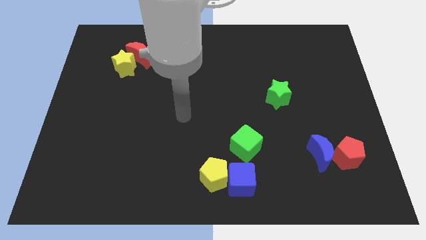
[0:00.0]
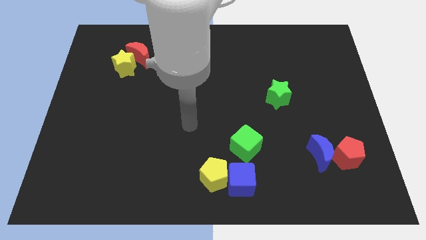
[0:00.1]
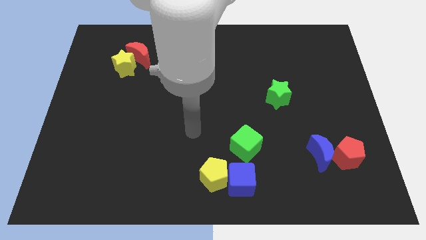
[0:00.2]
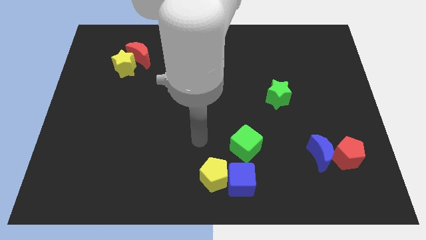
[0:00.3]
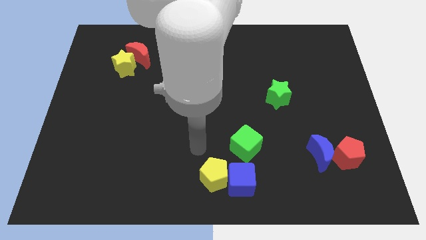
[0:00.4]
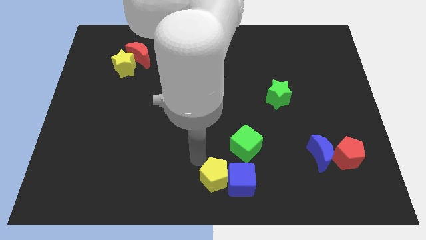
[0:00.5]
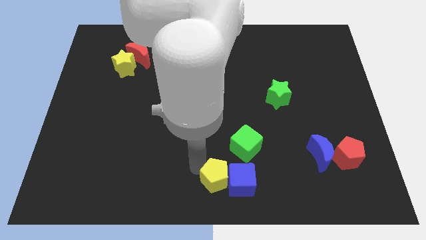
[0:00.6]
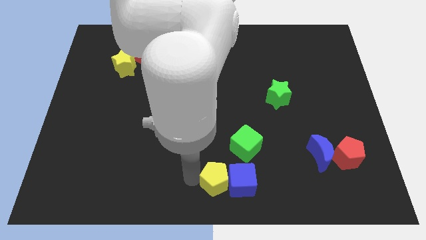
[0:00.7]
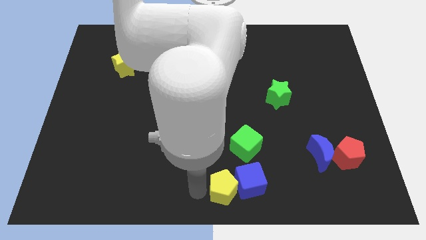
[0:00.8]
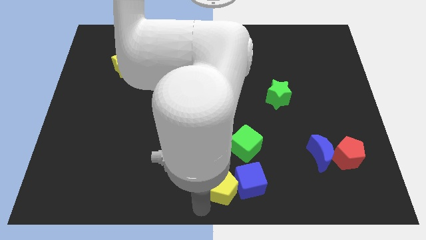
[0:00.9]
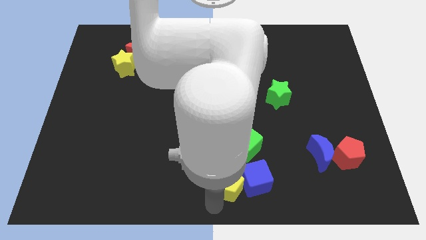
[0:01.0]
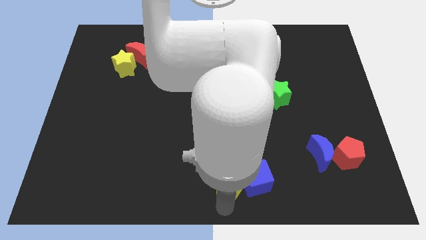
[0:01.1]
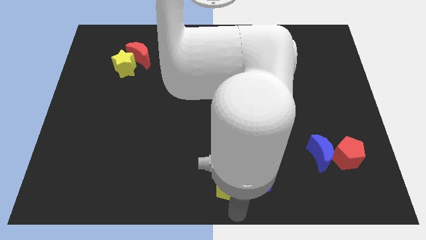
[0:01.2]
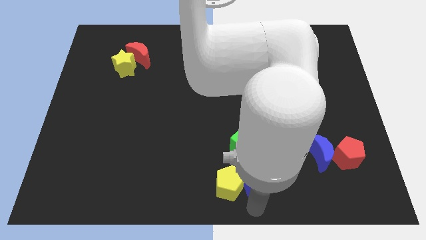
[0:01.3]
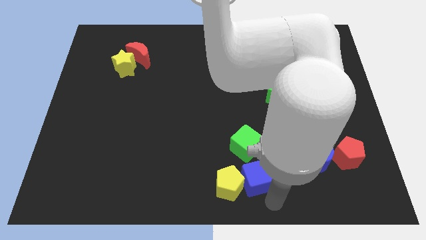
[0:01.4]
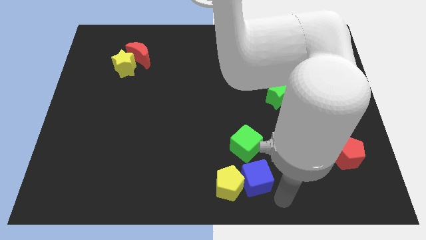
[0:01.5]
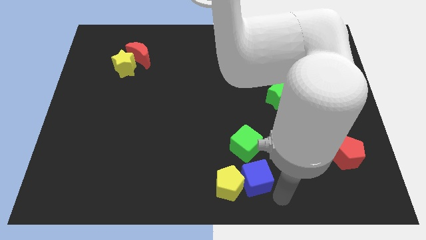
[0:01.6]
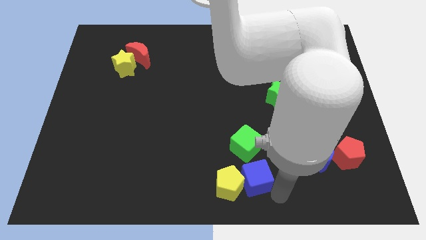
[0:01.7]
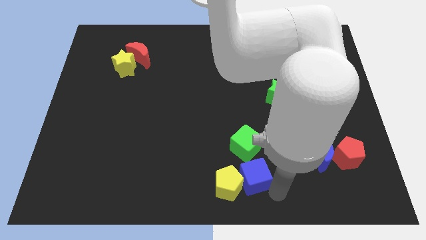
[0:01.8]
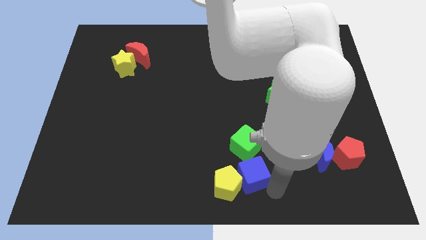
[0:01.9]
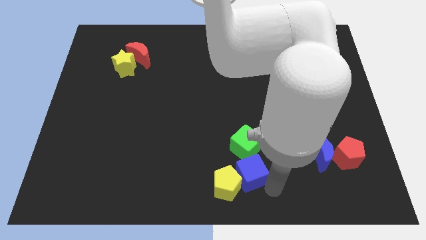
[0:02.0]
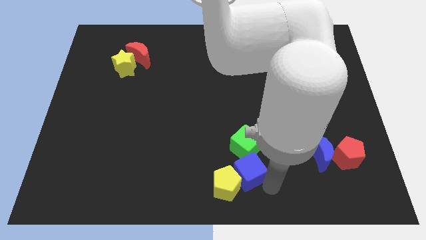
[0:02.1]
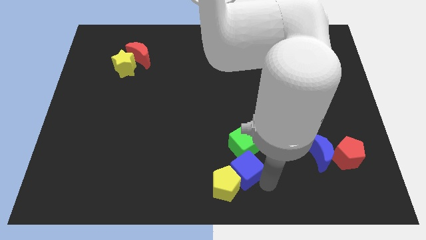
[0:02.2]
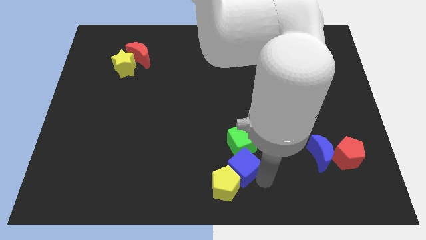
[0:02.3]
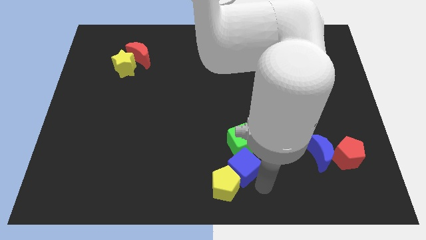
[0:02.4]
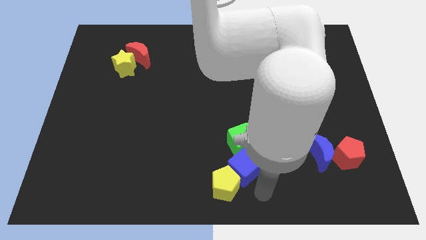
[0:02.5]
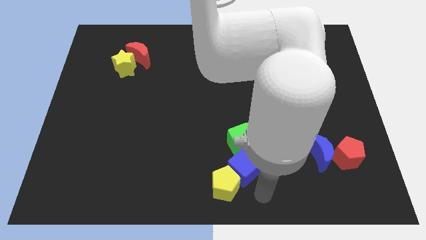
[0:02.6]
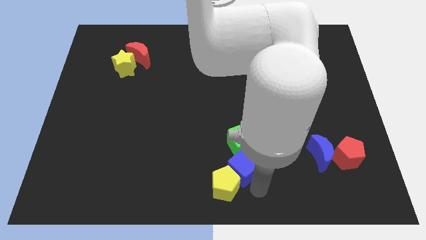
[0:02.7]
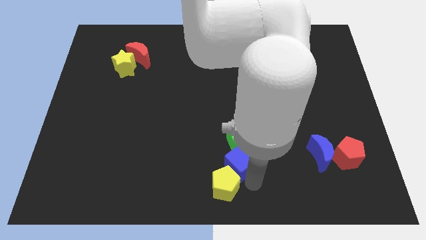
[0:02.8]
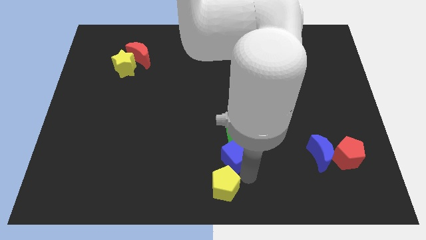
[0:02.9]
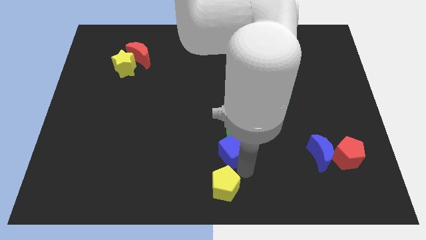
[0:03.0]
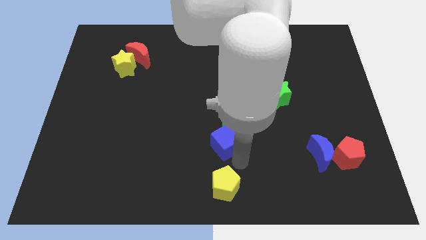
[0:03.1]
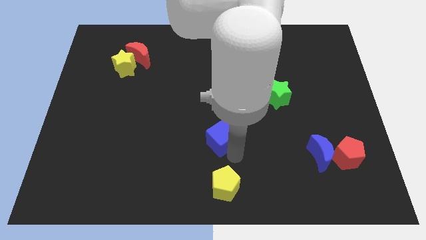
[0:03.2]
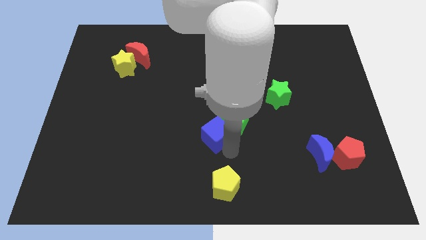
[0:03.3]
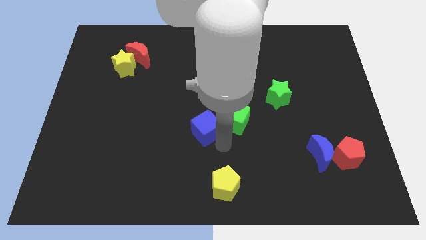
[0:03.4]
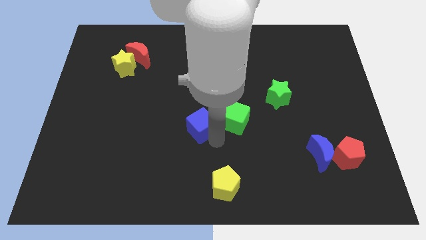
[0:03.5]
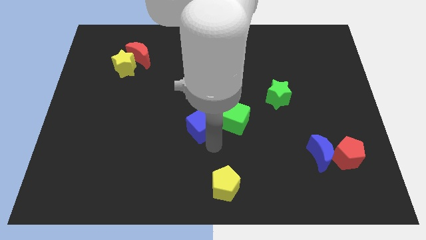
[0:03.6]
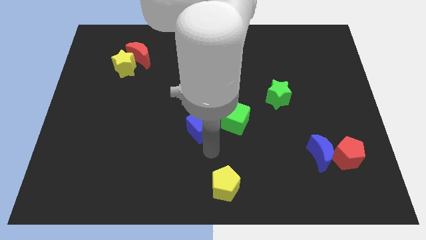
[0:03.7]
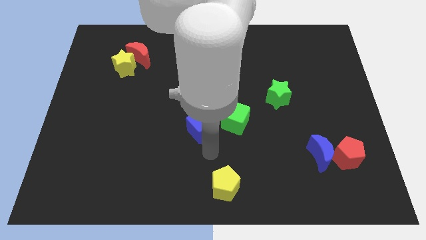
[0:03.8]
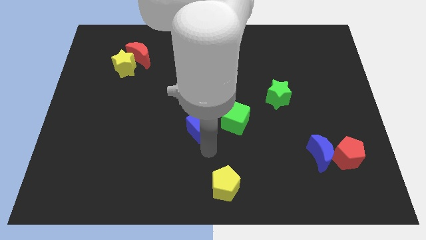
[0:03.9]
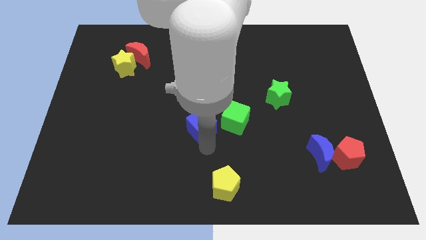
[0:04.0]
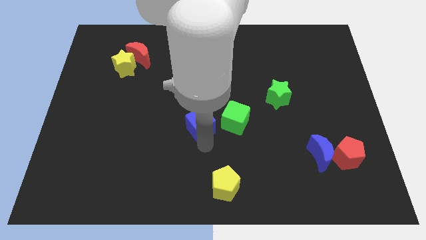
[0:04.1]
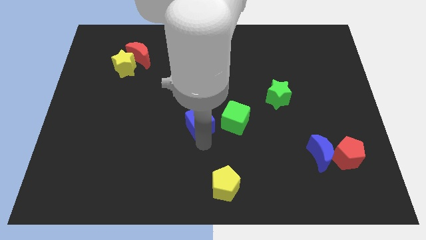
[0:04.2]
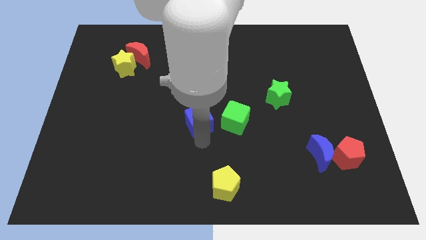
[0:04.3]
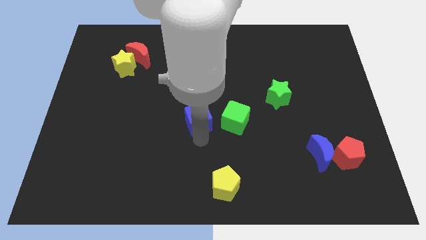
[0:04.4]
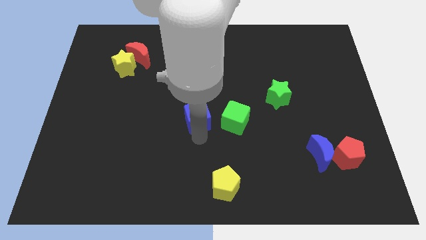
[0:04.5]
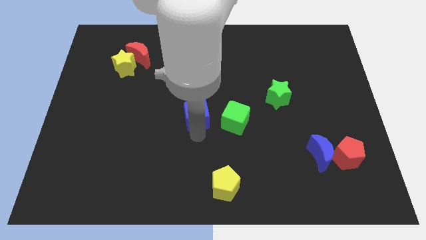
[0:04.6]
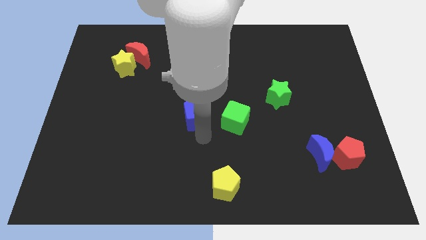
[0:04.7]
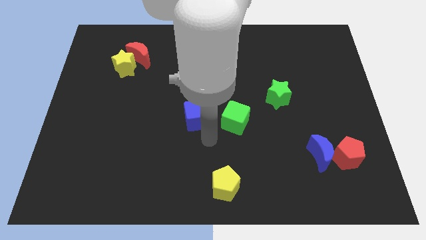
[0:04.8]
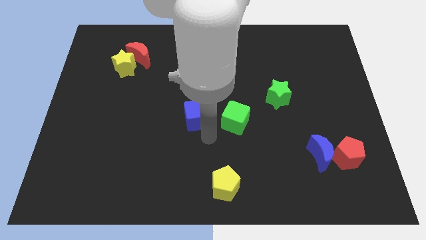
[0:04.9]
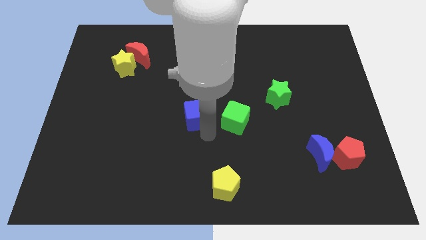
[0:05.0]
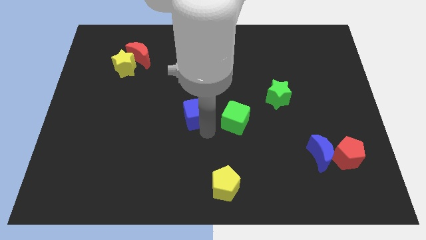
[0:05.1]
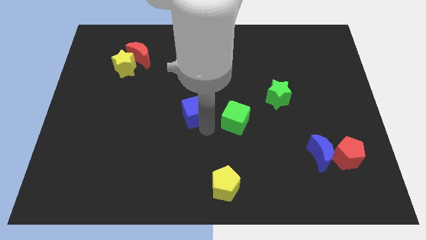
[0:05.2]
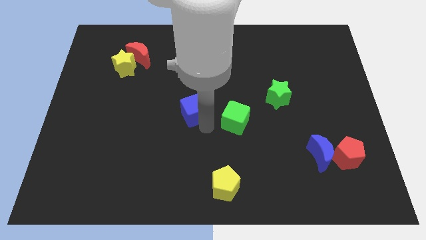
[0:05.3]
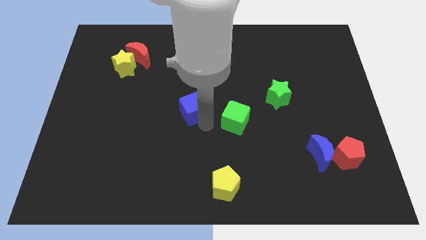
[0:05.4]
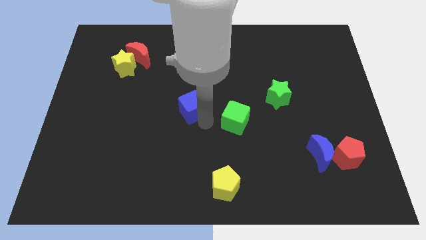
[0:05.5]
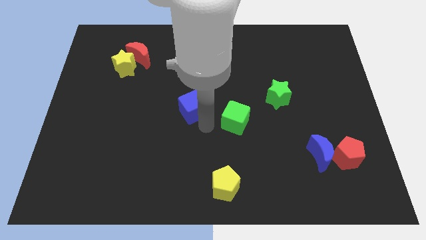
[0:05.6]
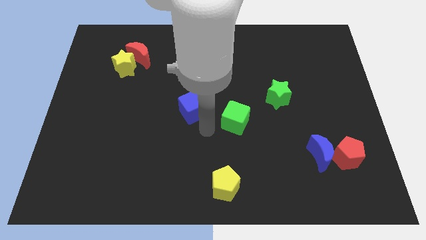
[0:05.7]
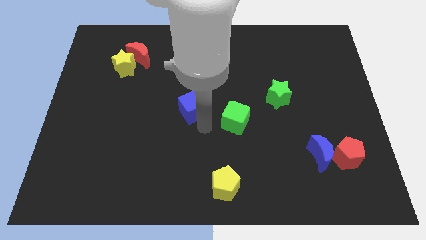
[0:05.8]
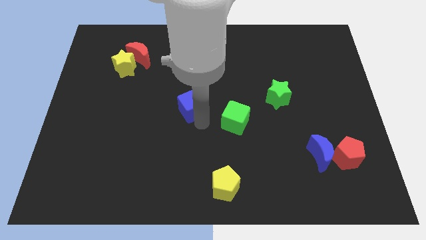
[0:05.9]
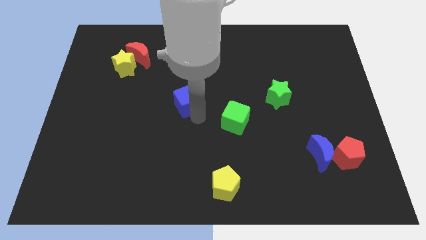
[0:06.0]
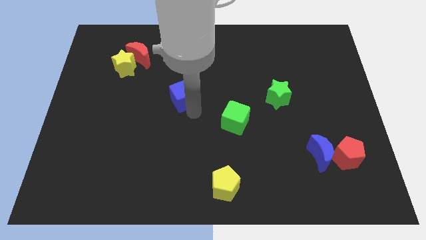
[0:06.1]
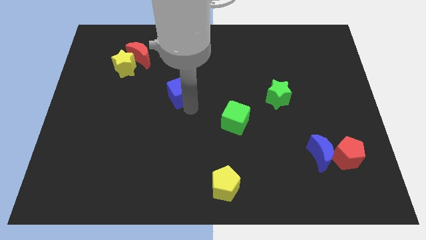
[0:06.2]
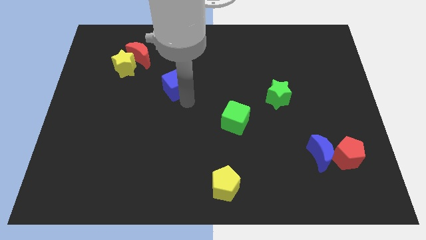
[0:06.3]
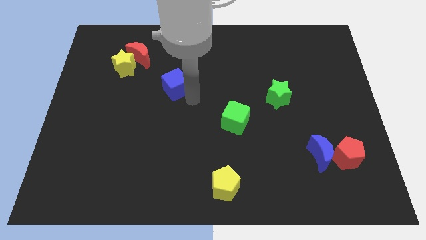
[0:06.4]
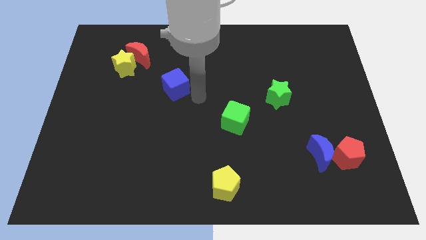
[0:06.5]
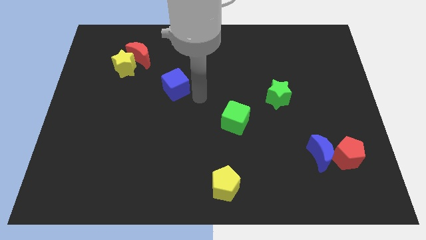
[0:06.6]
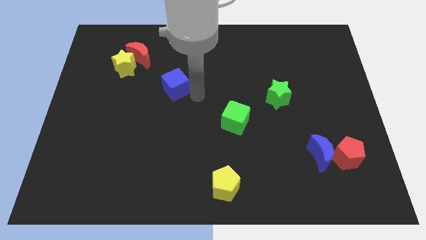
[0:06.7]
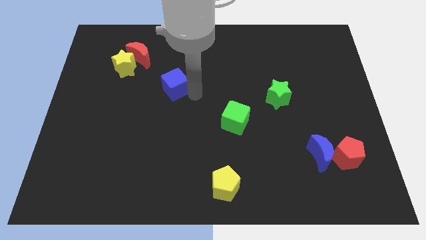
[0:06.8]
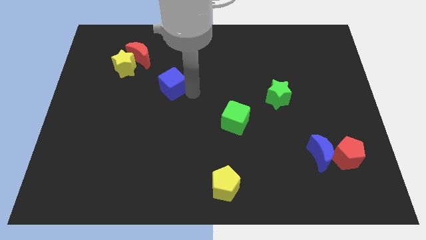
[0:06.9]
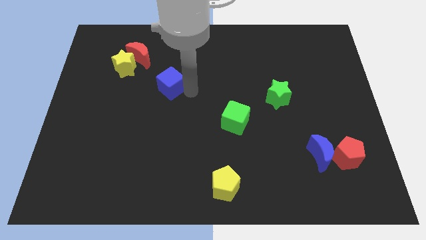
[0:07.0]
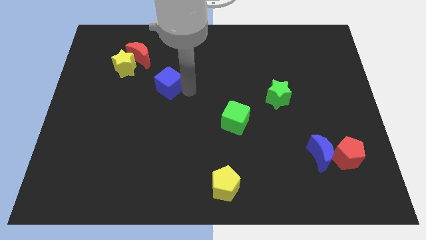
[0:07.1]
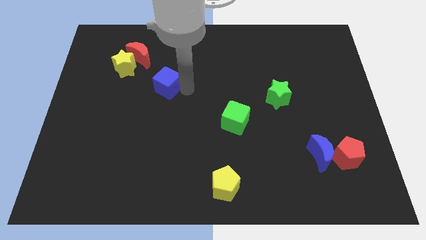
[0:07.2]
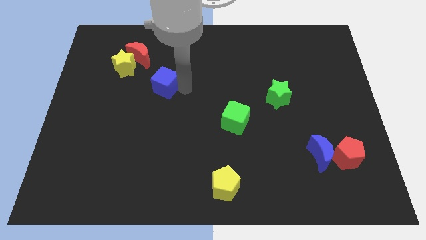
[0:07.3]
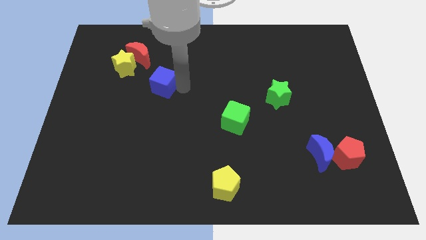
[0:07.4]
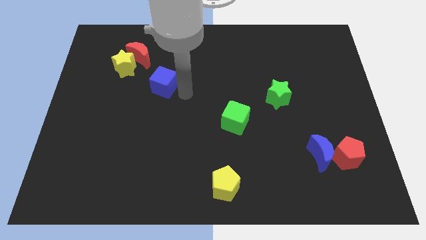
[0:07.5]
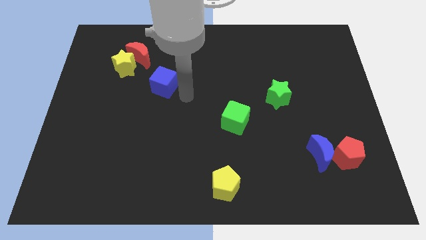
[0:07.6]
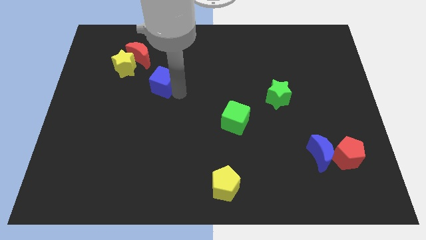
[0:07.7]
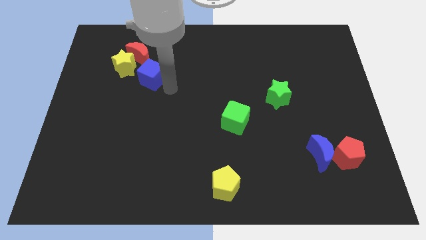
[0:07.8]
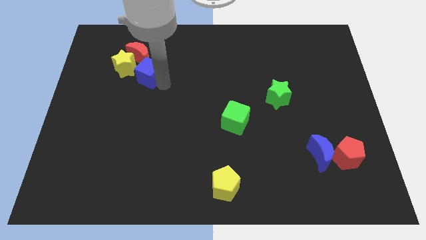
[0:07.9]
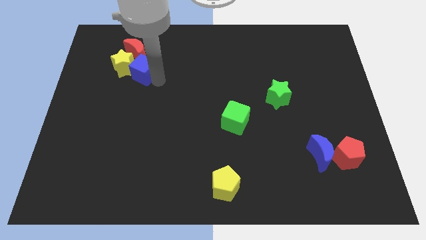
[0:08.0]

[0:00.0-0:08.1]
move the blue cube to the yellow star

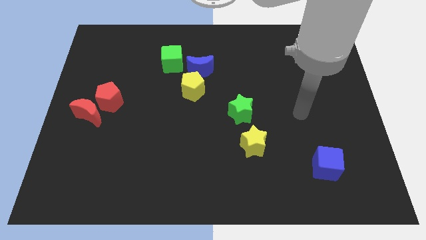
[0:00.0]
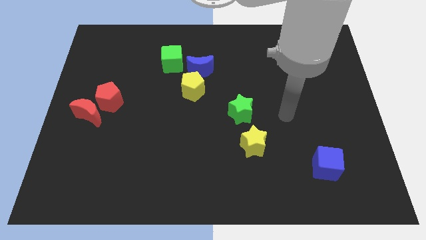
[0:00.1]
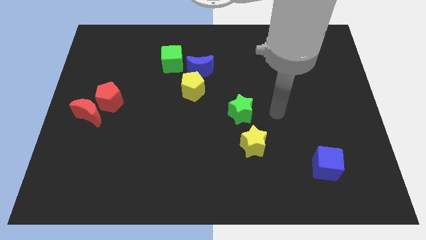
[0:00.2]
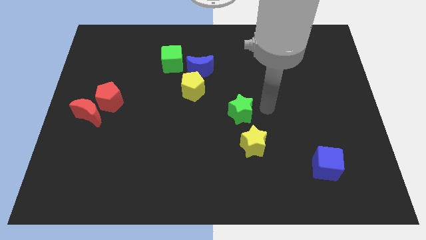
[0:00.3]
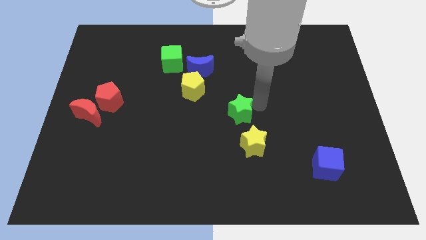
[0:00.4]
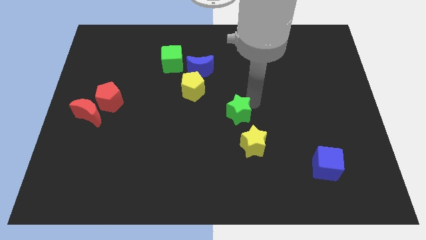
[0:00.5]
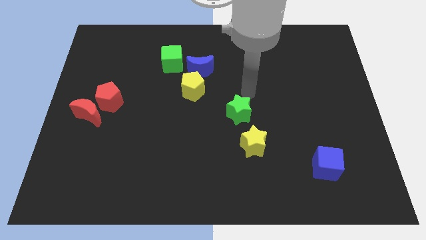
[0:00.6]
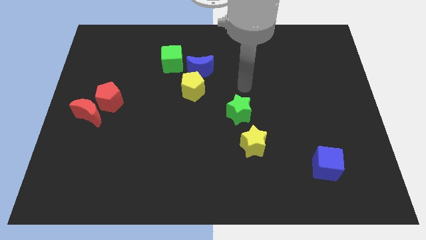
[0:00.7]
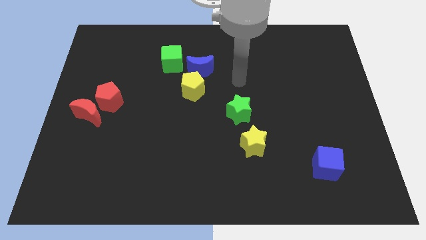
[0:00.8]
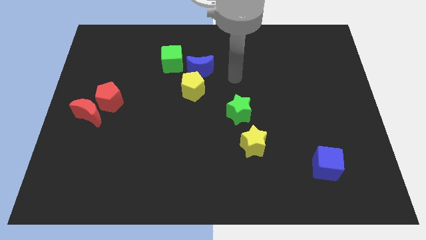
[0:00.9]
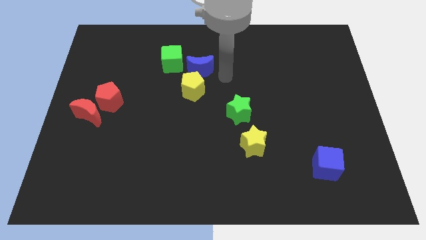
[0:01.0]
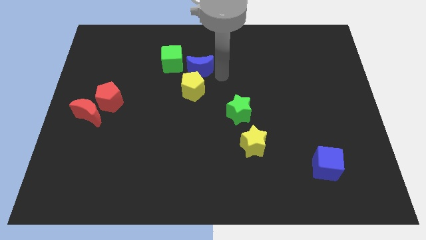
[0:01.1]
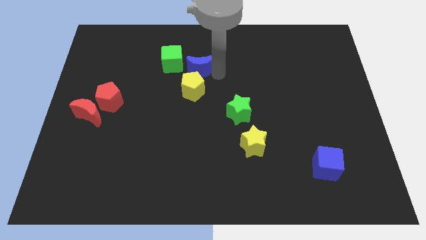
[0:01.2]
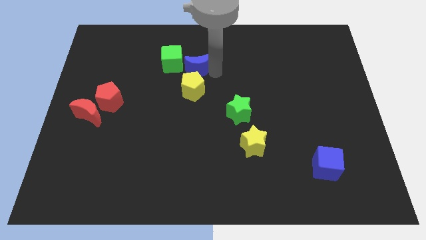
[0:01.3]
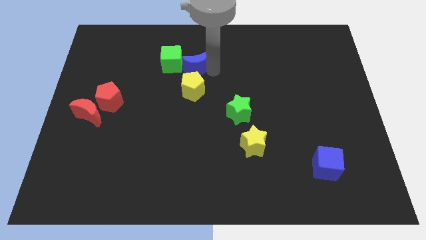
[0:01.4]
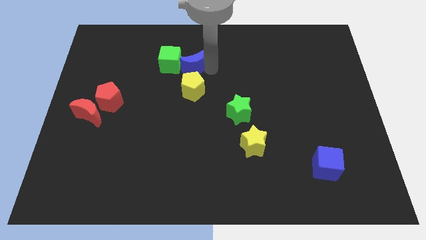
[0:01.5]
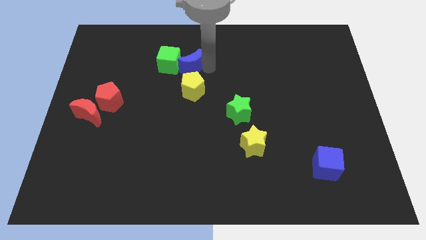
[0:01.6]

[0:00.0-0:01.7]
move the blue moon towards the green cube
